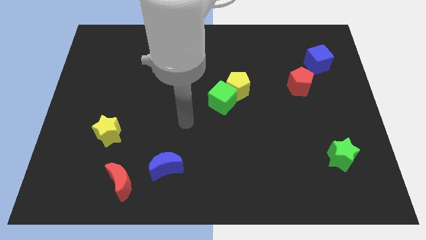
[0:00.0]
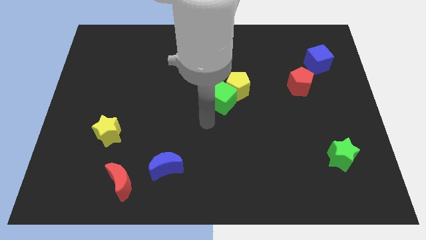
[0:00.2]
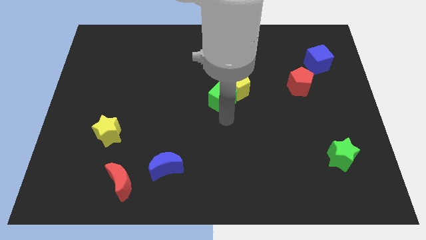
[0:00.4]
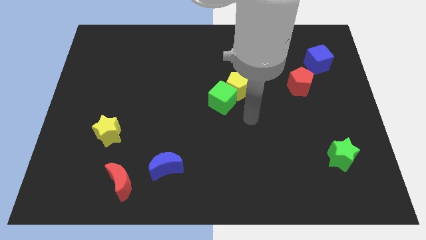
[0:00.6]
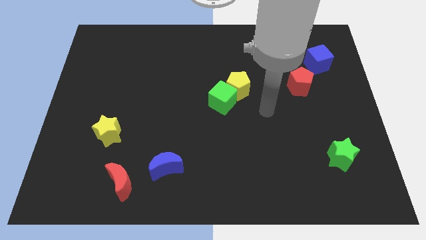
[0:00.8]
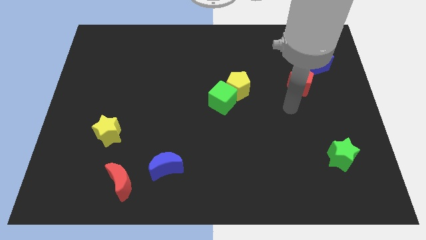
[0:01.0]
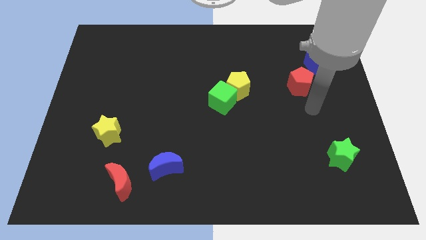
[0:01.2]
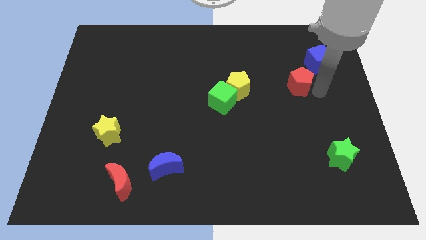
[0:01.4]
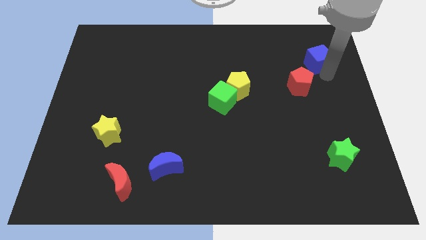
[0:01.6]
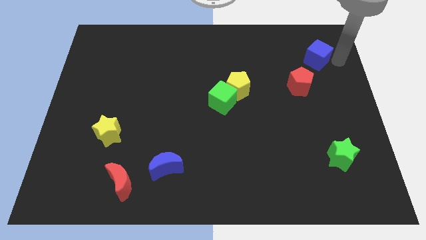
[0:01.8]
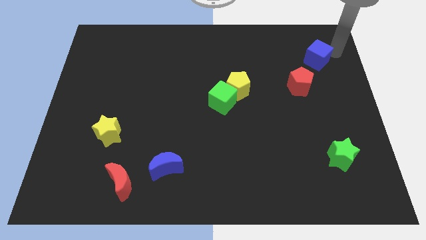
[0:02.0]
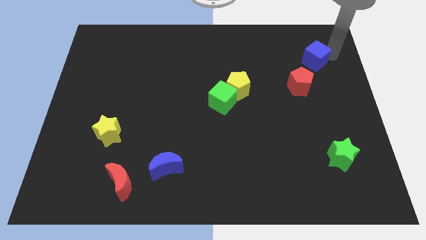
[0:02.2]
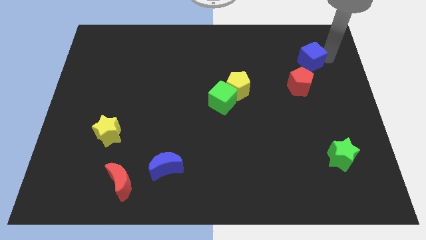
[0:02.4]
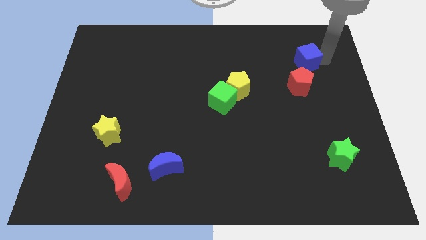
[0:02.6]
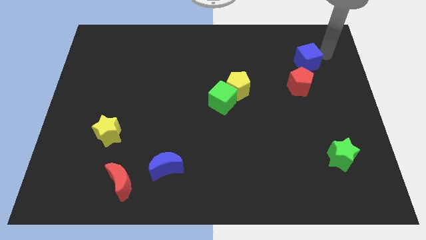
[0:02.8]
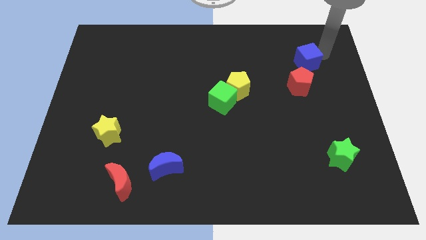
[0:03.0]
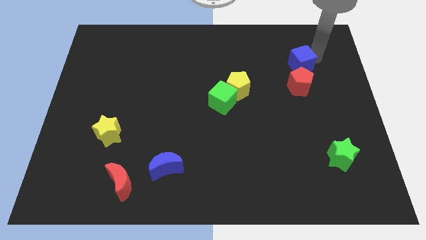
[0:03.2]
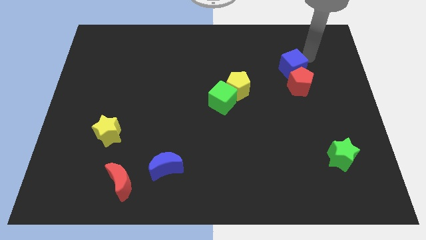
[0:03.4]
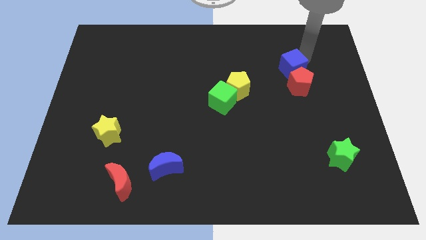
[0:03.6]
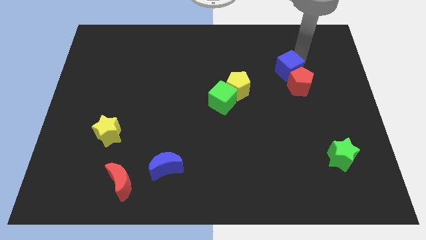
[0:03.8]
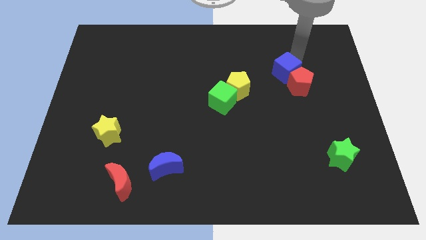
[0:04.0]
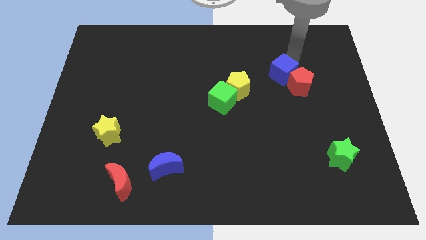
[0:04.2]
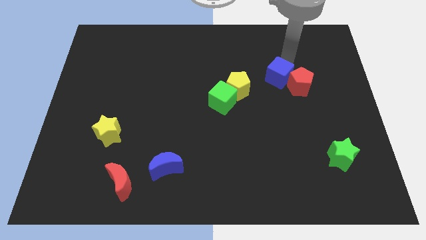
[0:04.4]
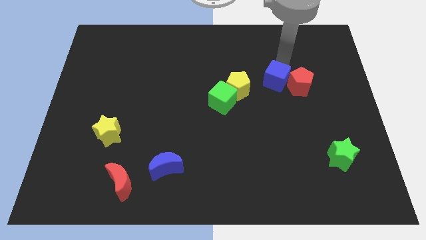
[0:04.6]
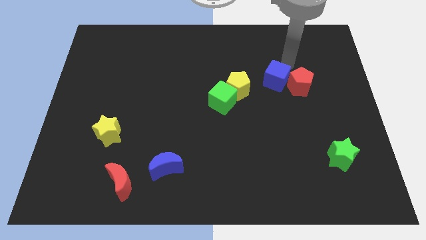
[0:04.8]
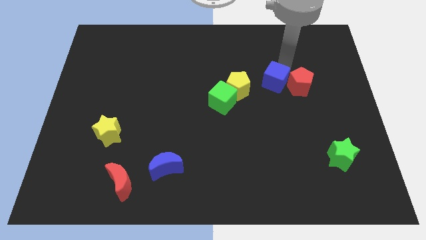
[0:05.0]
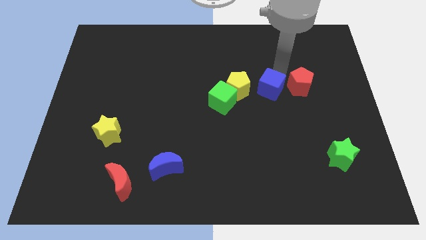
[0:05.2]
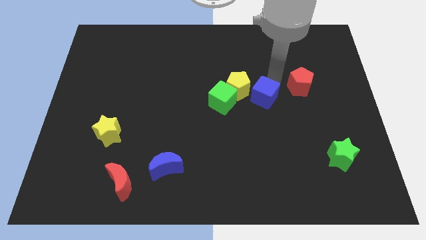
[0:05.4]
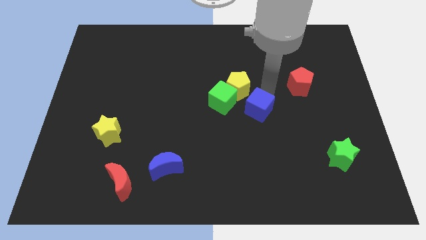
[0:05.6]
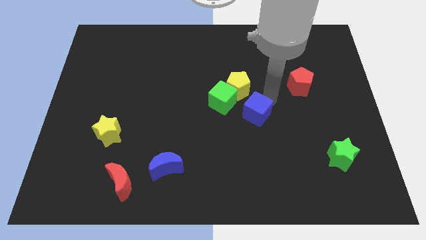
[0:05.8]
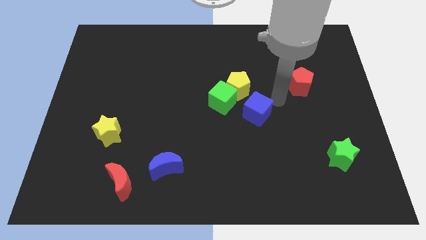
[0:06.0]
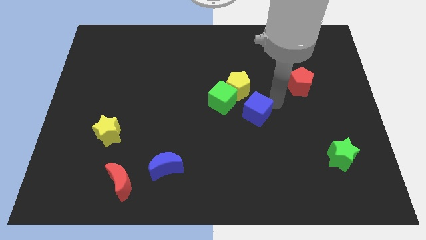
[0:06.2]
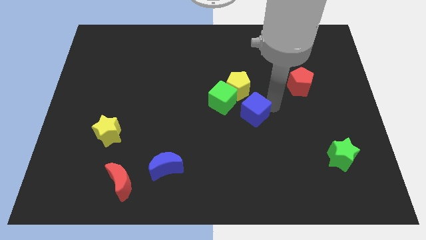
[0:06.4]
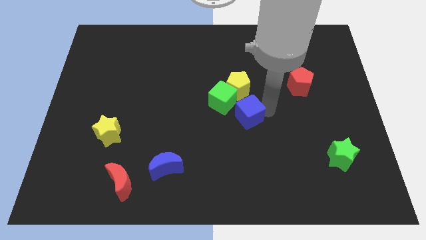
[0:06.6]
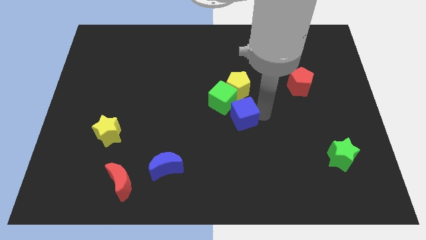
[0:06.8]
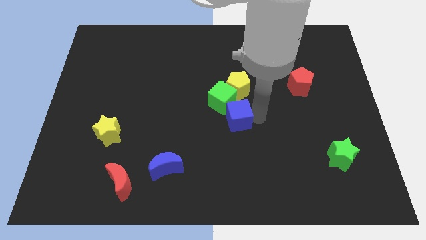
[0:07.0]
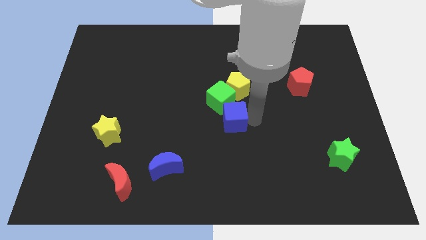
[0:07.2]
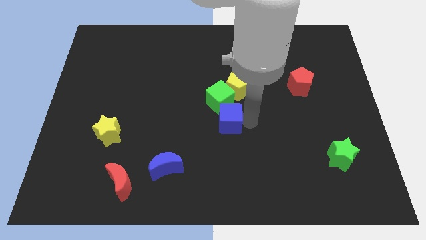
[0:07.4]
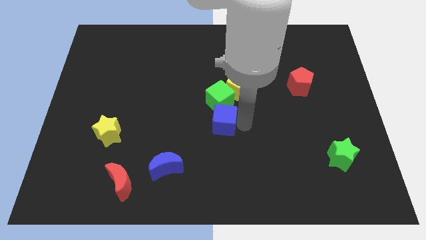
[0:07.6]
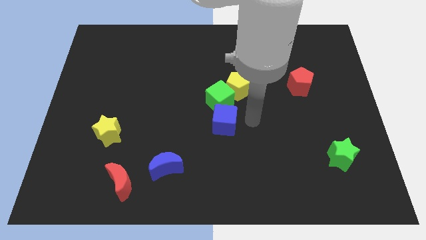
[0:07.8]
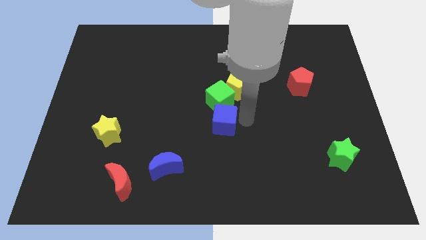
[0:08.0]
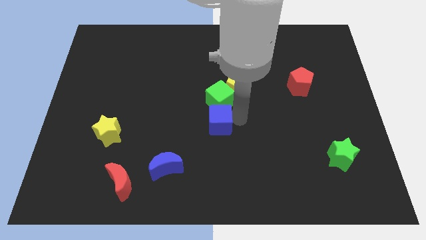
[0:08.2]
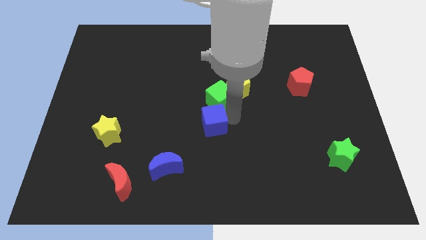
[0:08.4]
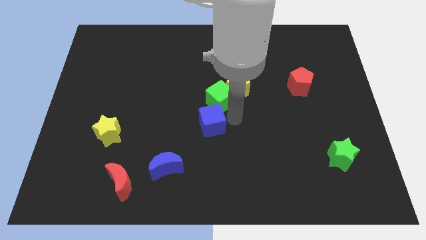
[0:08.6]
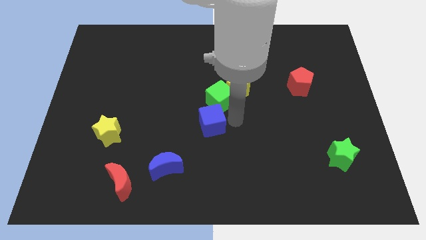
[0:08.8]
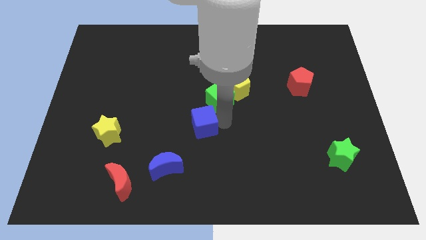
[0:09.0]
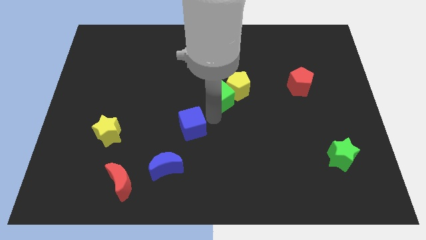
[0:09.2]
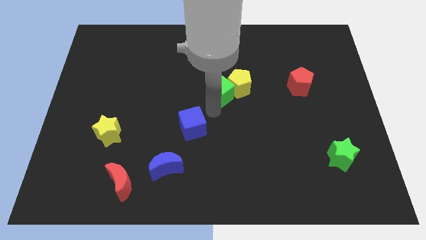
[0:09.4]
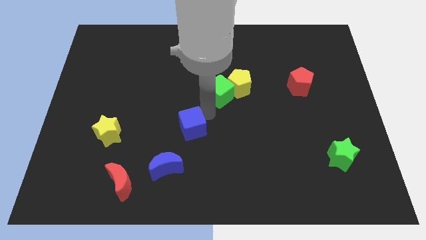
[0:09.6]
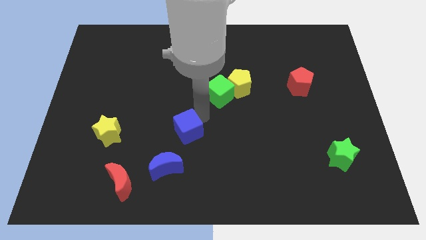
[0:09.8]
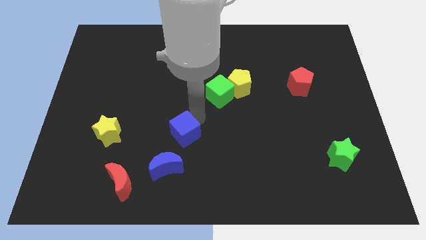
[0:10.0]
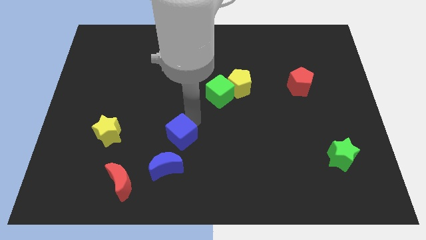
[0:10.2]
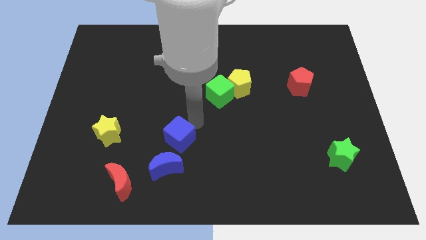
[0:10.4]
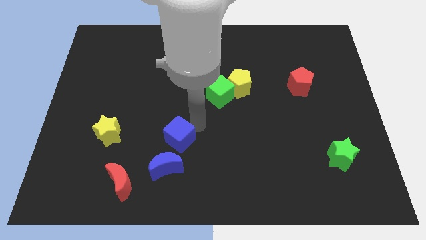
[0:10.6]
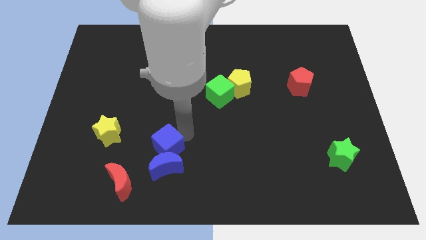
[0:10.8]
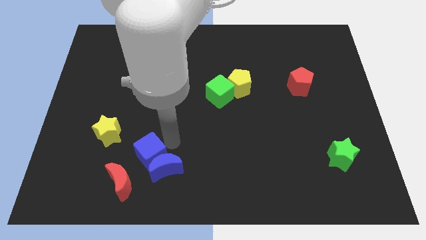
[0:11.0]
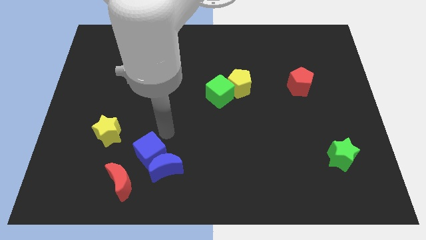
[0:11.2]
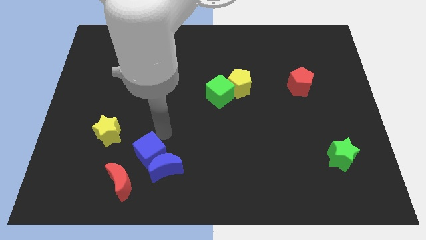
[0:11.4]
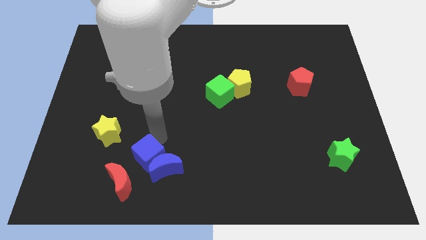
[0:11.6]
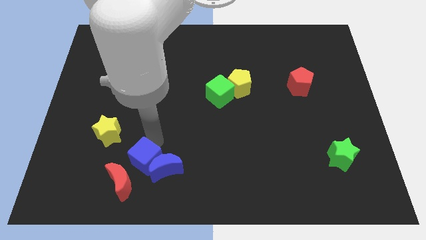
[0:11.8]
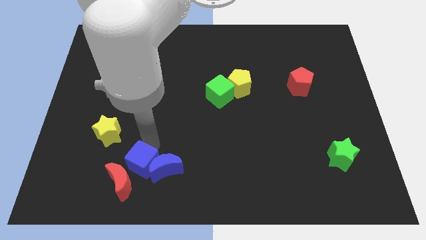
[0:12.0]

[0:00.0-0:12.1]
move the blue cube close to the red moon

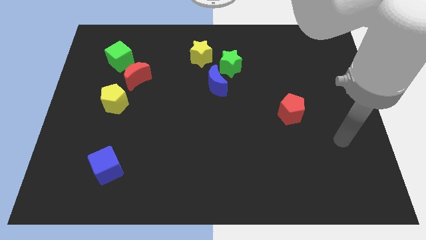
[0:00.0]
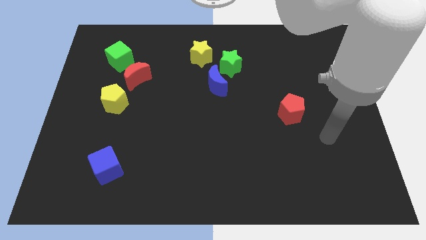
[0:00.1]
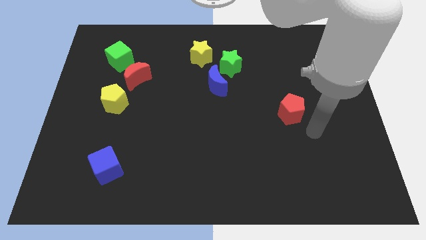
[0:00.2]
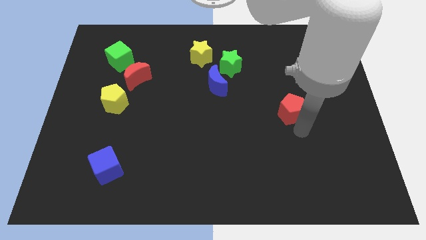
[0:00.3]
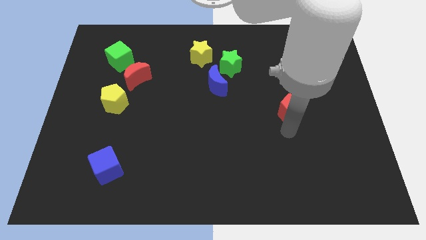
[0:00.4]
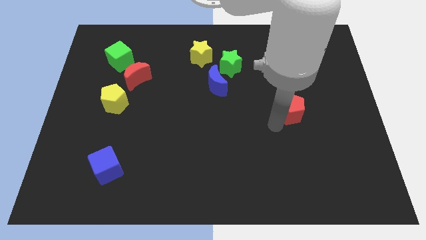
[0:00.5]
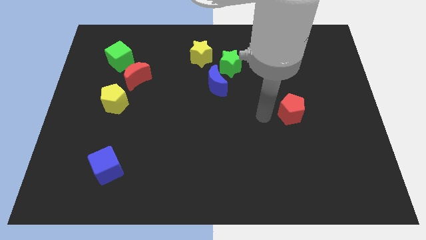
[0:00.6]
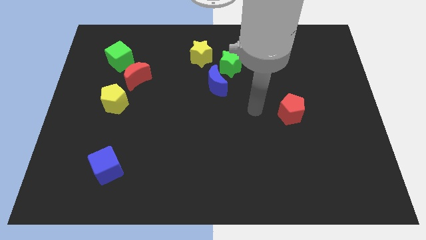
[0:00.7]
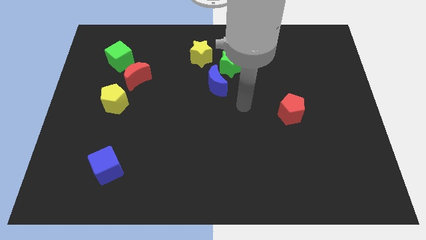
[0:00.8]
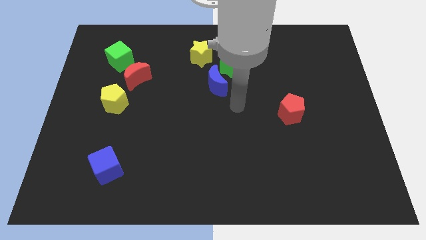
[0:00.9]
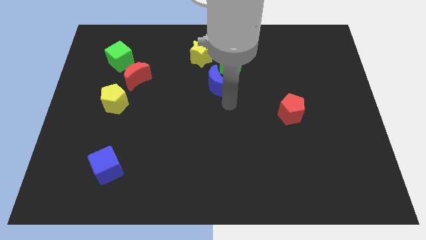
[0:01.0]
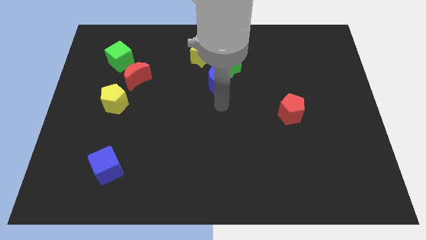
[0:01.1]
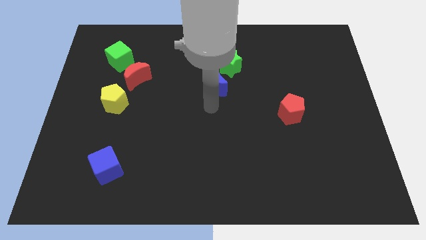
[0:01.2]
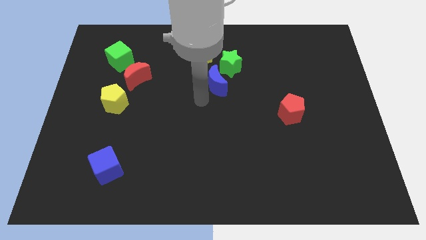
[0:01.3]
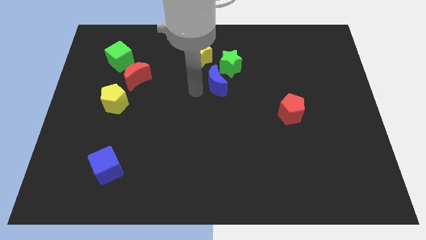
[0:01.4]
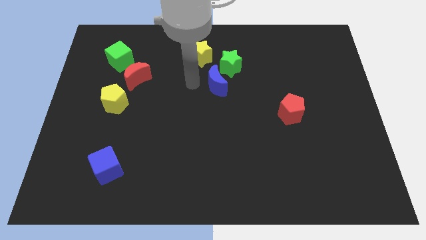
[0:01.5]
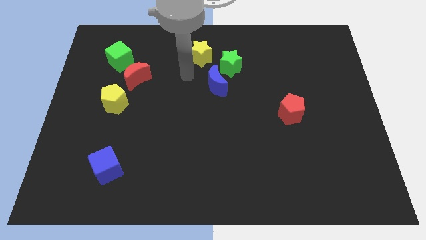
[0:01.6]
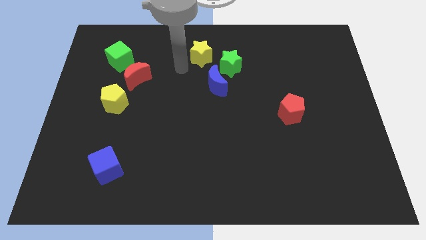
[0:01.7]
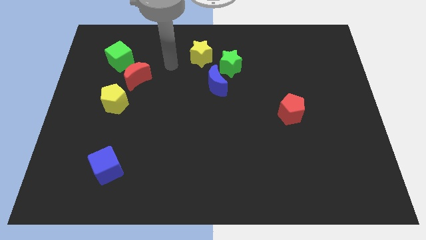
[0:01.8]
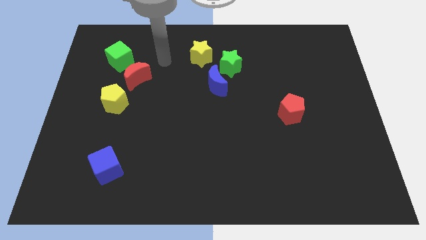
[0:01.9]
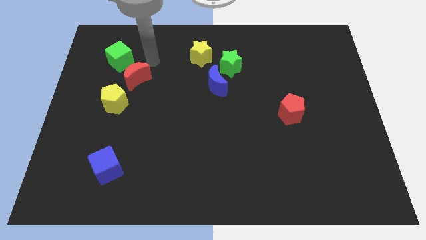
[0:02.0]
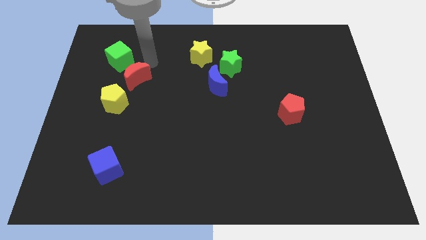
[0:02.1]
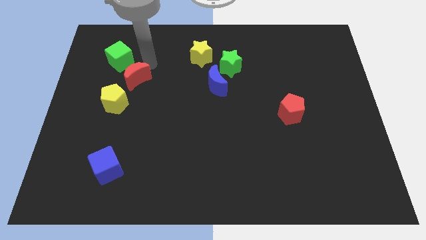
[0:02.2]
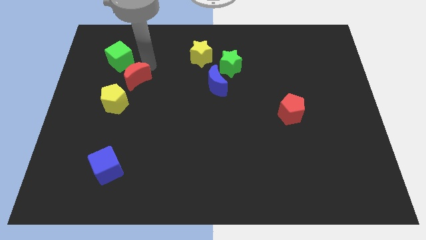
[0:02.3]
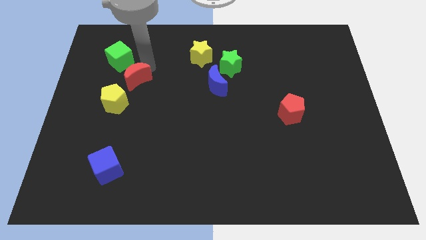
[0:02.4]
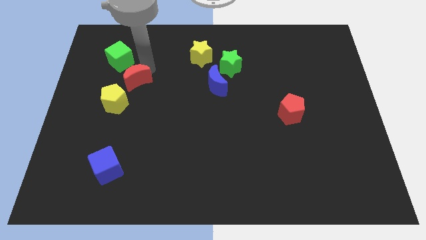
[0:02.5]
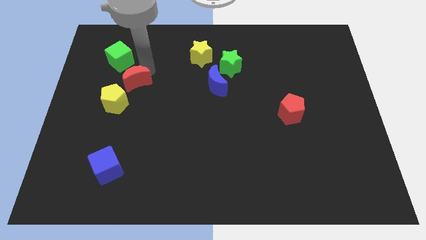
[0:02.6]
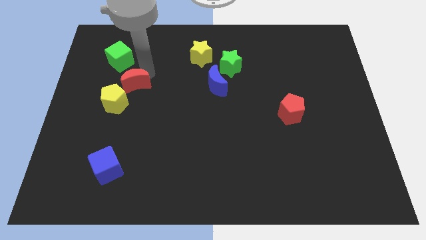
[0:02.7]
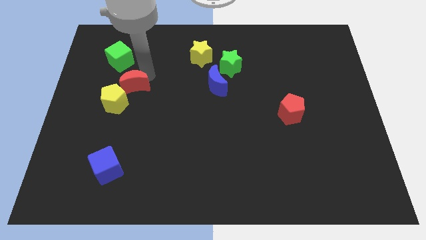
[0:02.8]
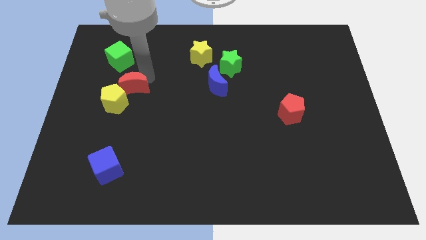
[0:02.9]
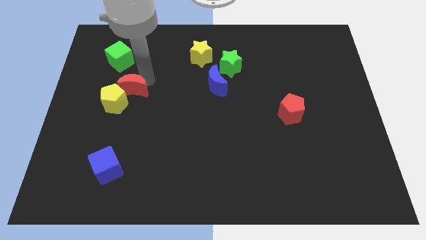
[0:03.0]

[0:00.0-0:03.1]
put the red moon to the yellow pentagon
